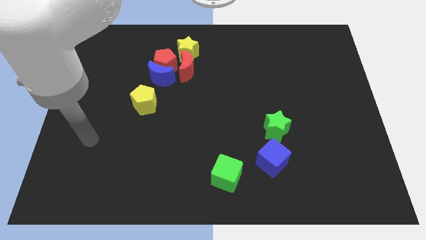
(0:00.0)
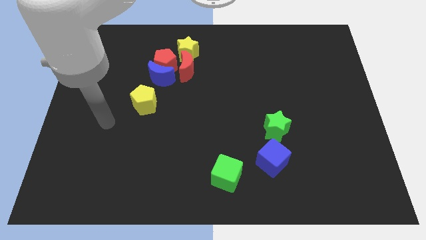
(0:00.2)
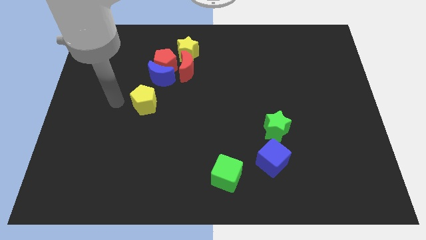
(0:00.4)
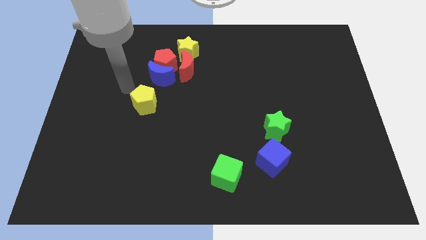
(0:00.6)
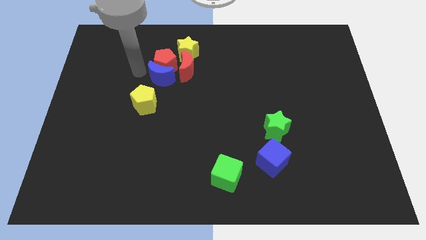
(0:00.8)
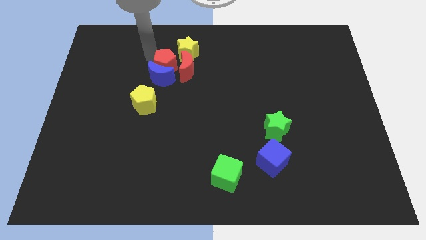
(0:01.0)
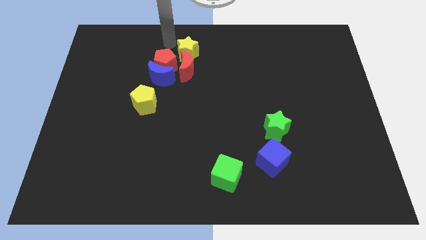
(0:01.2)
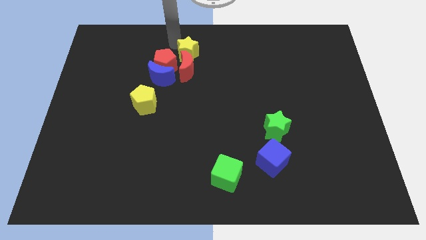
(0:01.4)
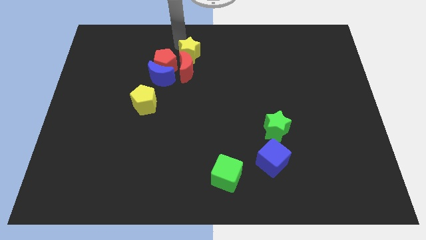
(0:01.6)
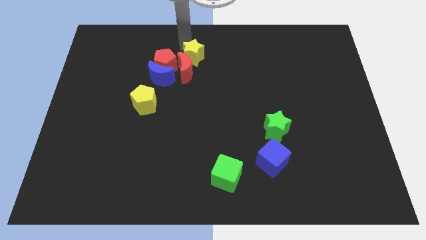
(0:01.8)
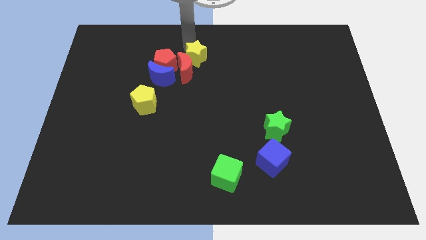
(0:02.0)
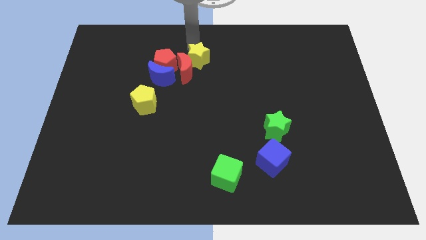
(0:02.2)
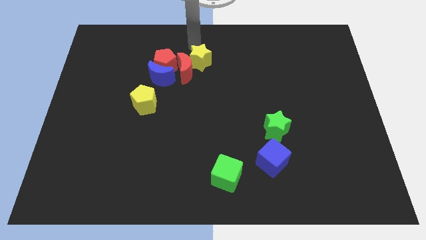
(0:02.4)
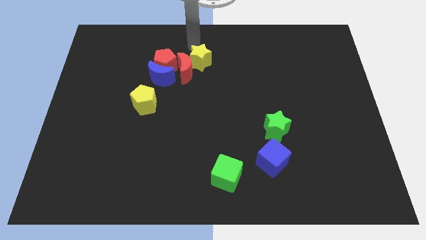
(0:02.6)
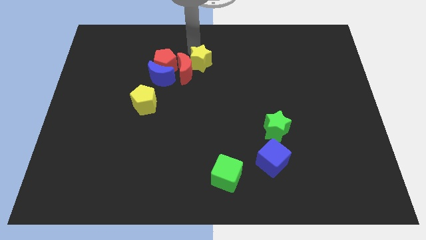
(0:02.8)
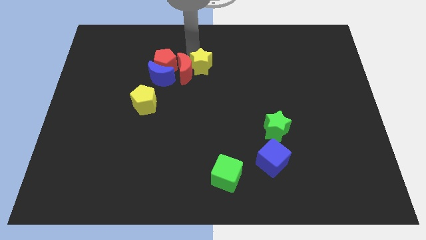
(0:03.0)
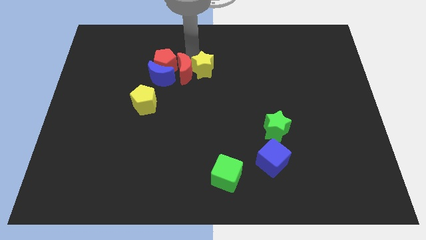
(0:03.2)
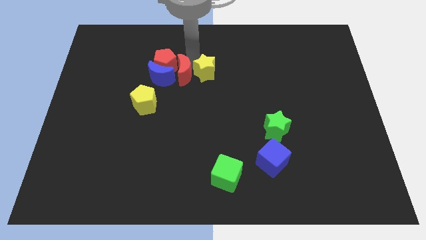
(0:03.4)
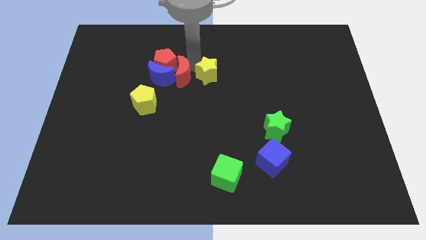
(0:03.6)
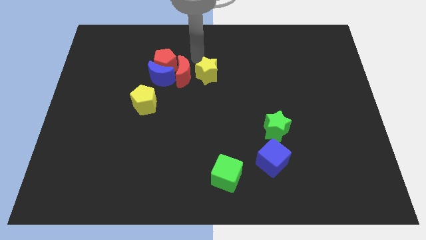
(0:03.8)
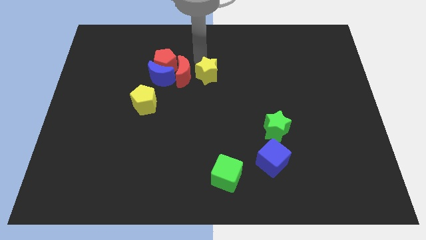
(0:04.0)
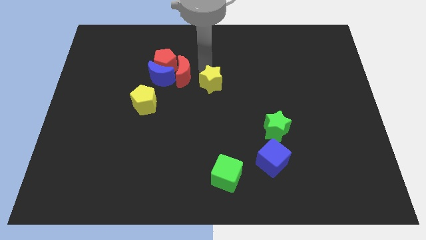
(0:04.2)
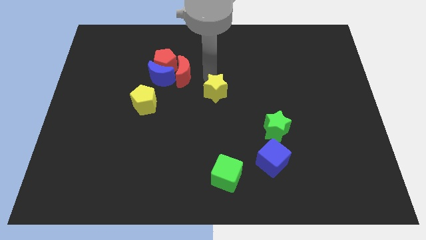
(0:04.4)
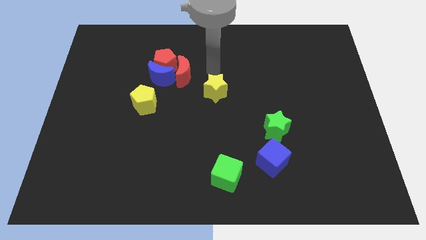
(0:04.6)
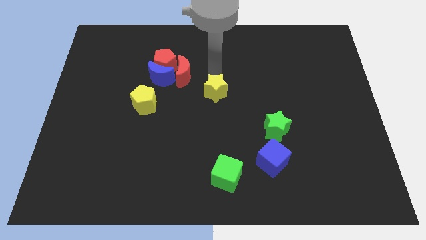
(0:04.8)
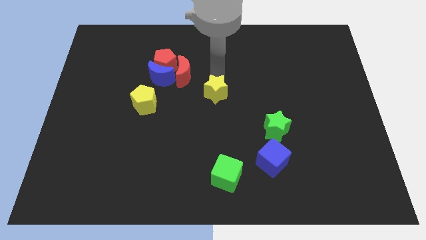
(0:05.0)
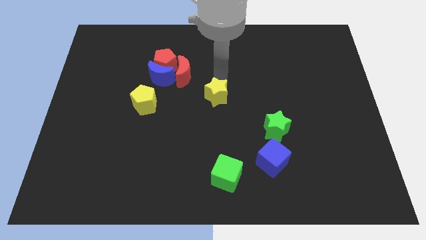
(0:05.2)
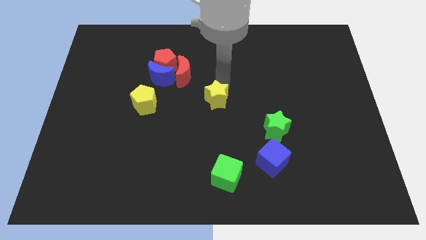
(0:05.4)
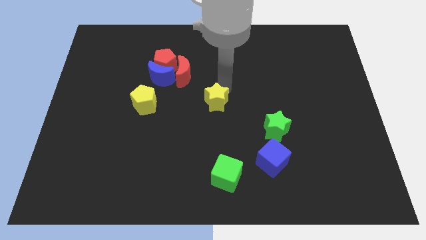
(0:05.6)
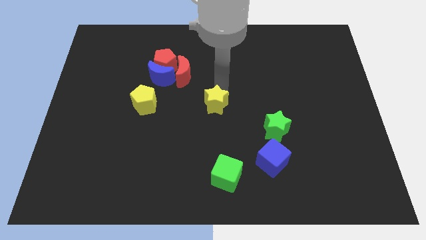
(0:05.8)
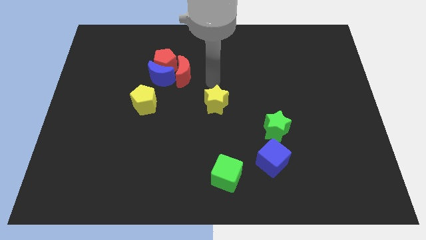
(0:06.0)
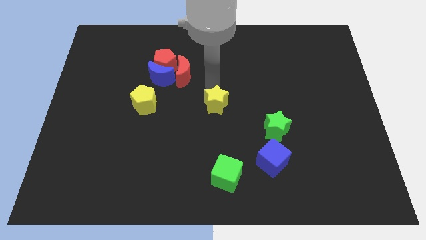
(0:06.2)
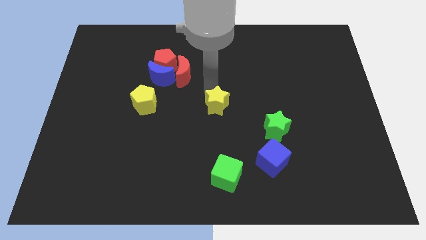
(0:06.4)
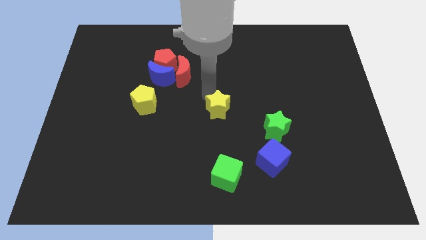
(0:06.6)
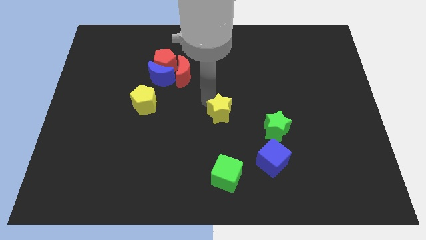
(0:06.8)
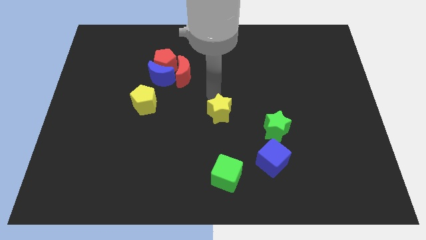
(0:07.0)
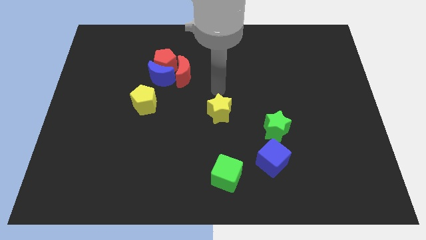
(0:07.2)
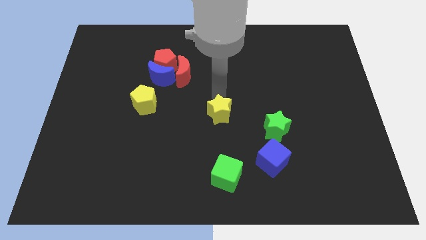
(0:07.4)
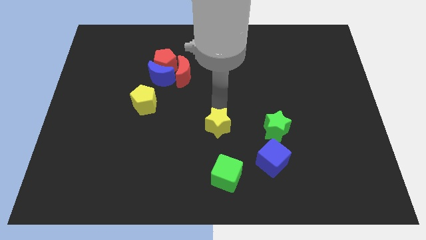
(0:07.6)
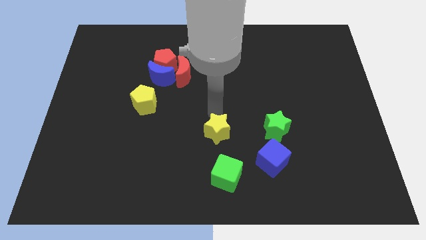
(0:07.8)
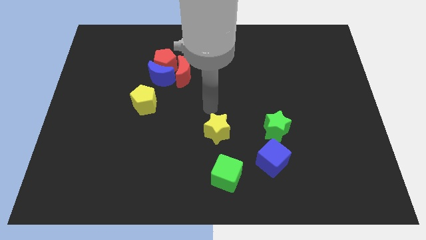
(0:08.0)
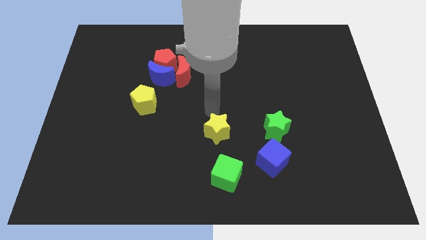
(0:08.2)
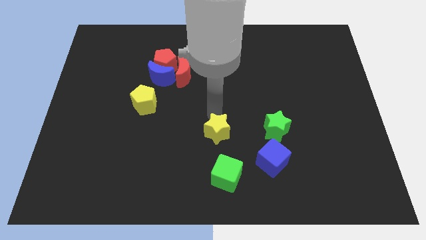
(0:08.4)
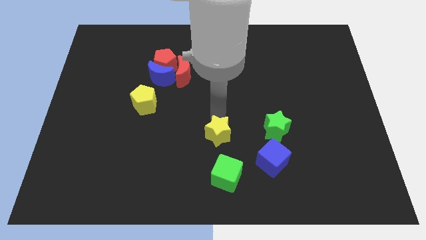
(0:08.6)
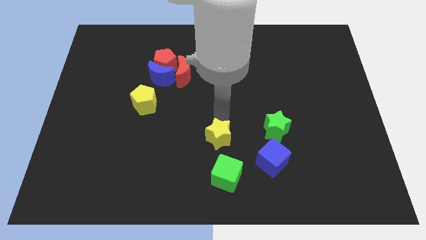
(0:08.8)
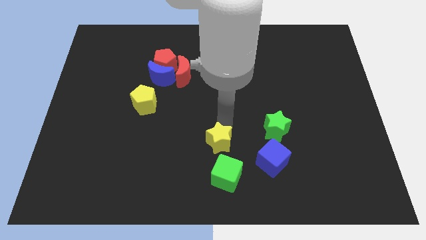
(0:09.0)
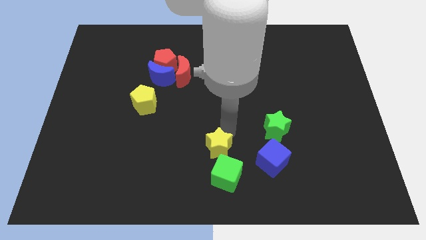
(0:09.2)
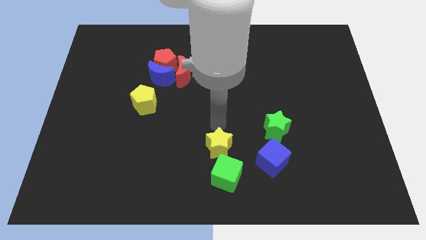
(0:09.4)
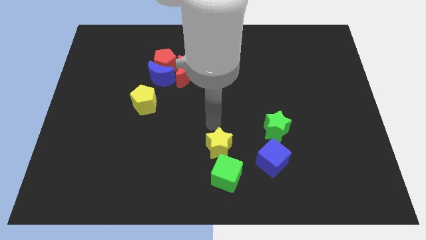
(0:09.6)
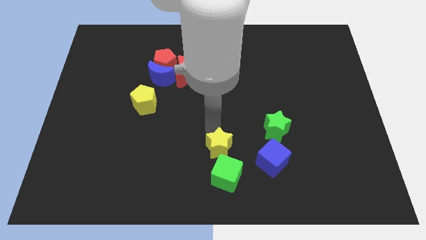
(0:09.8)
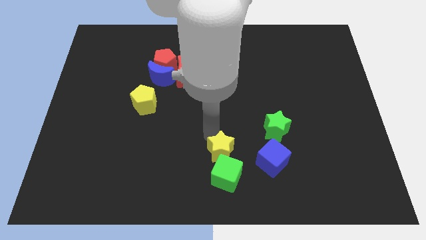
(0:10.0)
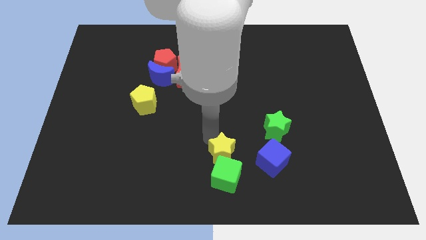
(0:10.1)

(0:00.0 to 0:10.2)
put the yellow star towards the green cube

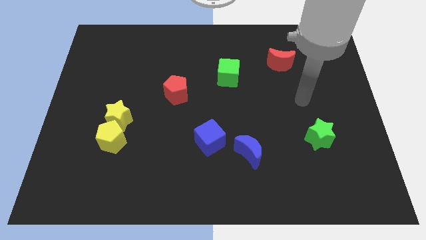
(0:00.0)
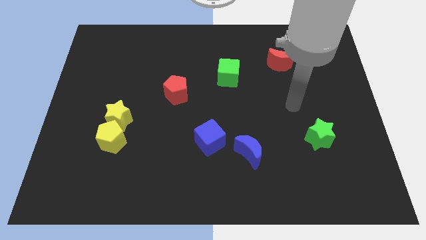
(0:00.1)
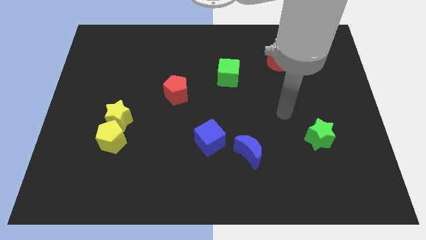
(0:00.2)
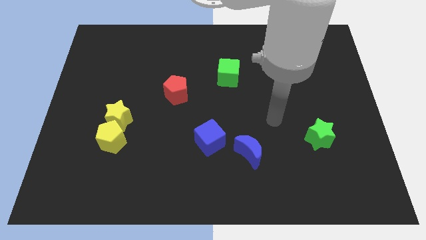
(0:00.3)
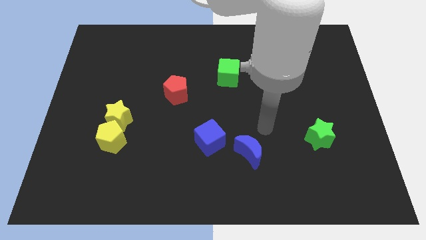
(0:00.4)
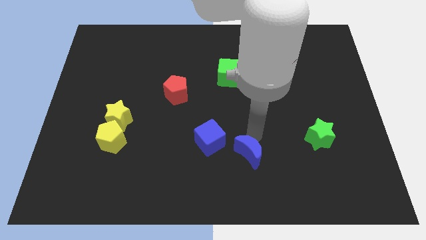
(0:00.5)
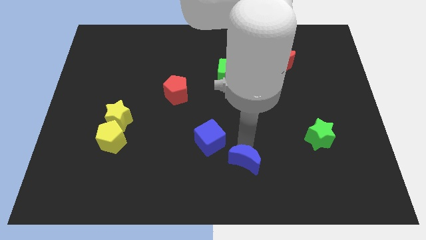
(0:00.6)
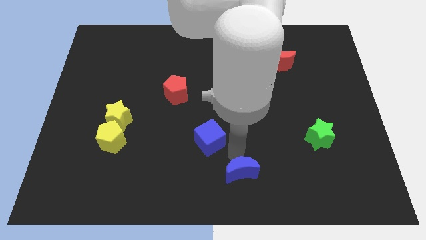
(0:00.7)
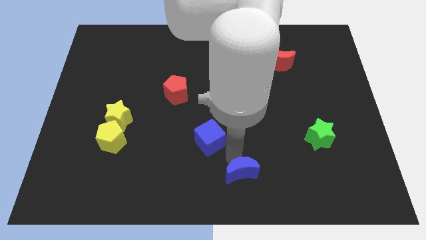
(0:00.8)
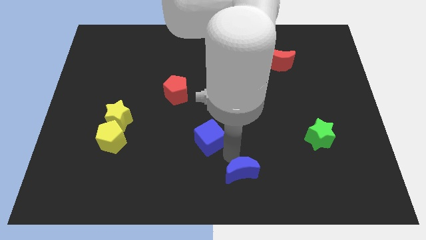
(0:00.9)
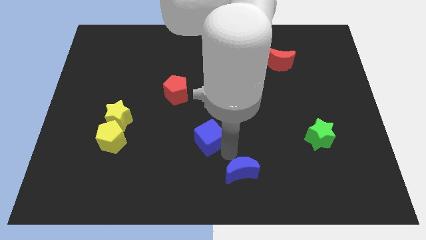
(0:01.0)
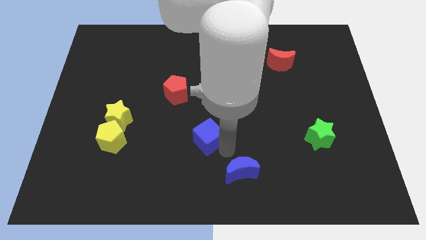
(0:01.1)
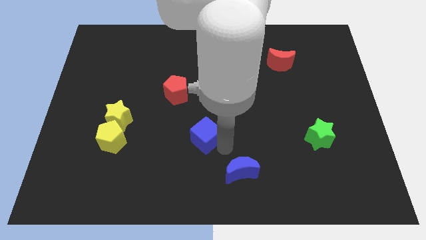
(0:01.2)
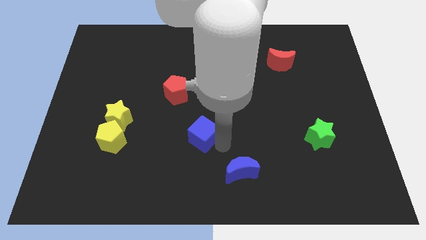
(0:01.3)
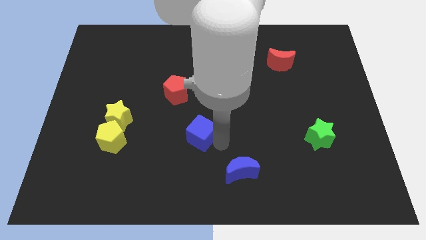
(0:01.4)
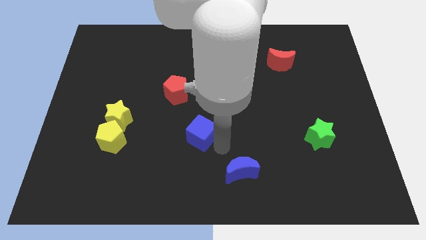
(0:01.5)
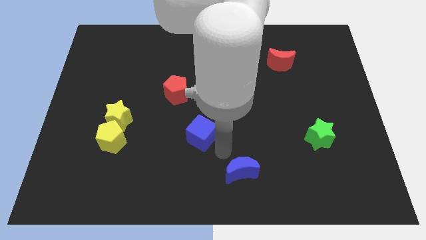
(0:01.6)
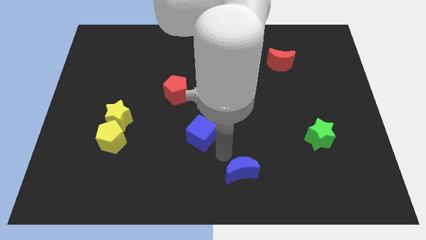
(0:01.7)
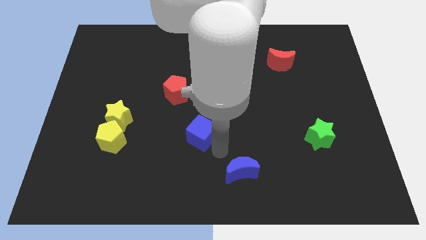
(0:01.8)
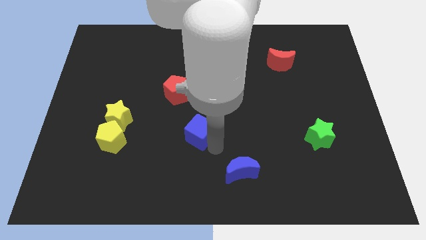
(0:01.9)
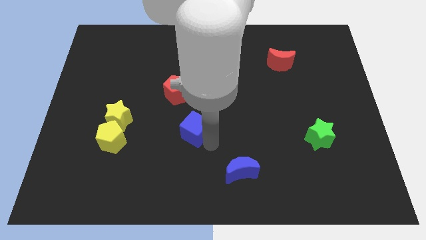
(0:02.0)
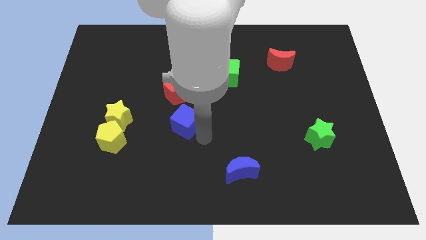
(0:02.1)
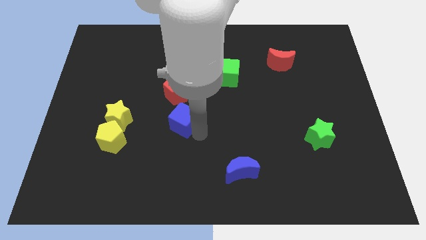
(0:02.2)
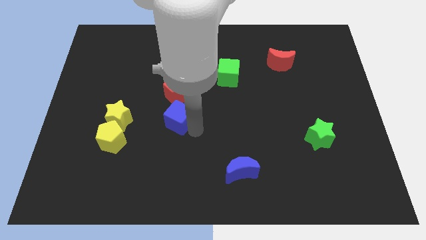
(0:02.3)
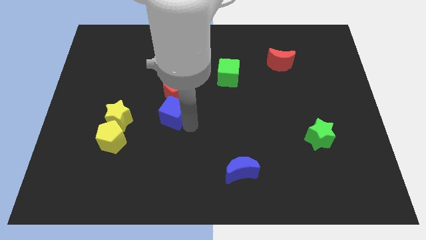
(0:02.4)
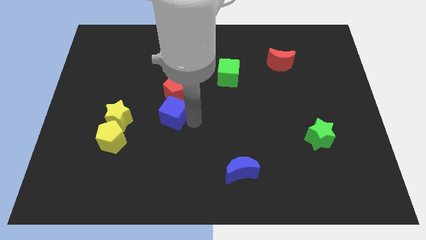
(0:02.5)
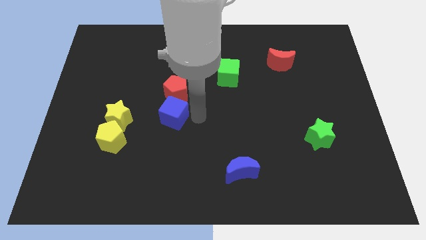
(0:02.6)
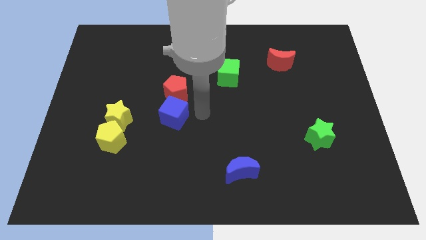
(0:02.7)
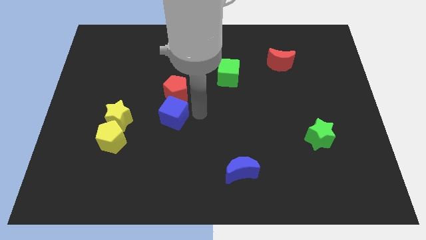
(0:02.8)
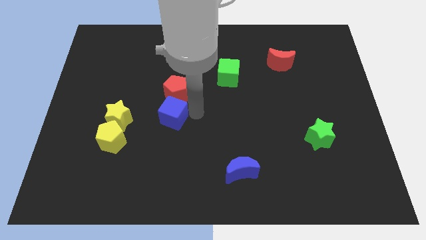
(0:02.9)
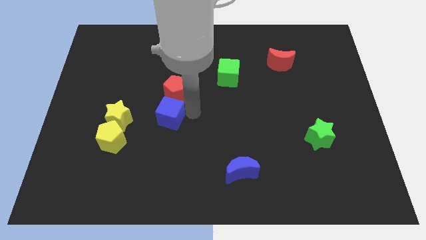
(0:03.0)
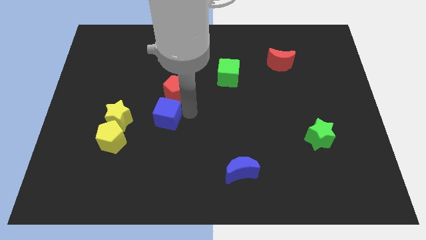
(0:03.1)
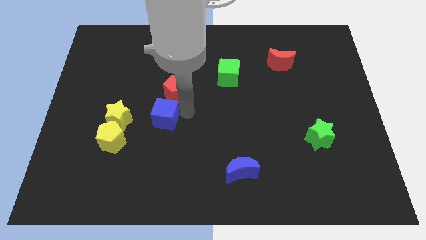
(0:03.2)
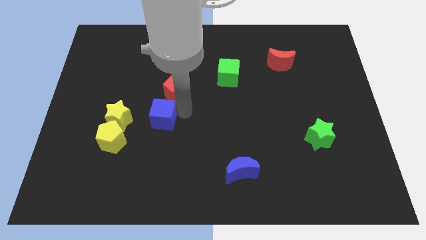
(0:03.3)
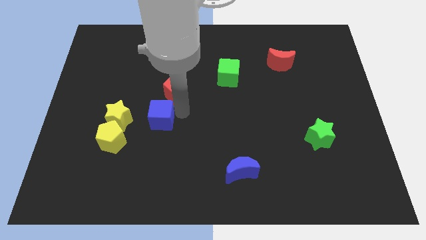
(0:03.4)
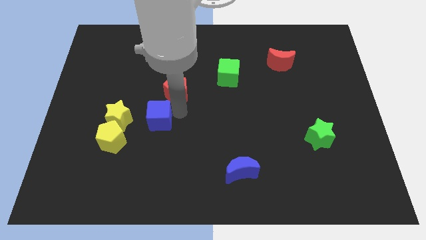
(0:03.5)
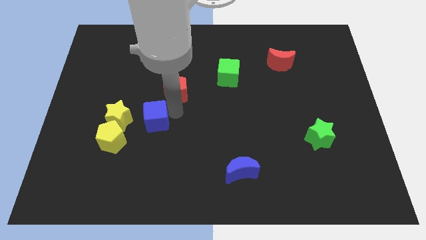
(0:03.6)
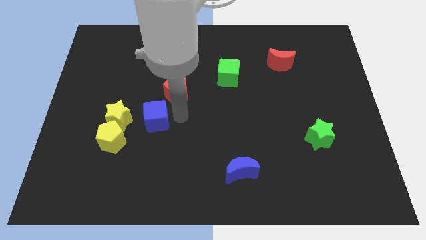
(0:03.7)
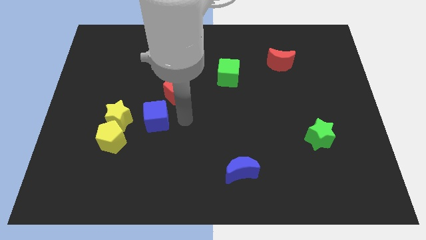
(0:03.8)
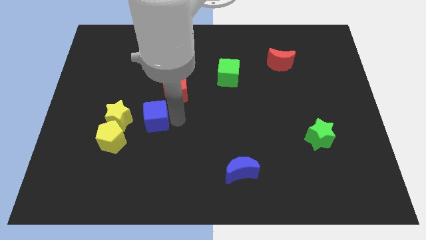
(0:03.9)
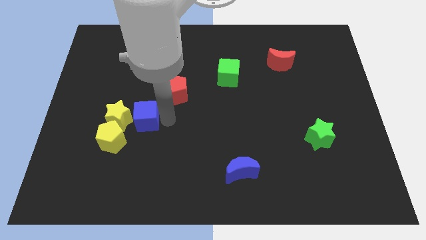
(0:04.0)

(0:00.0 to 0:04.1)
slide the blue cube next to the yellow star
